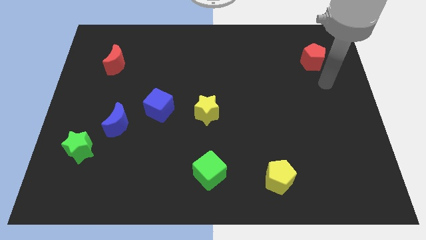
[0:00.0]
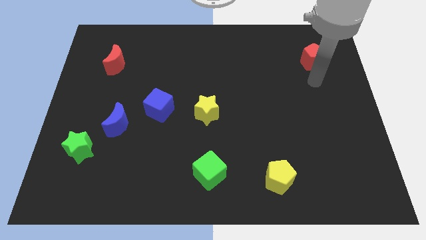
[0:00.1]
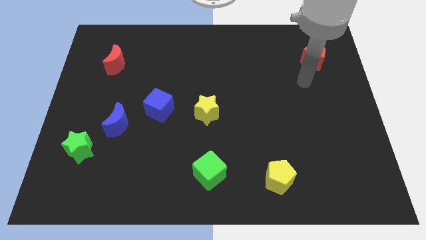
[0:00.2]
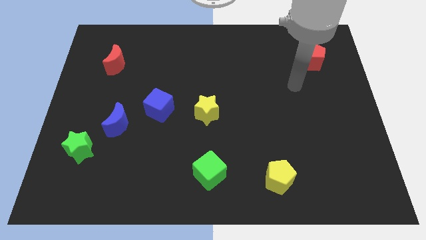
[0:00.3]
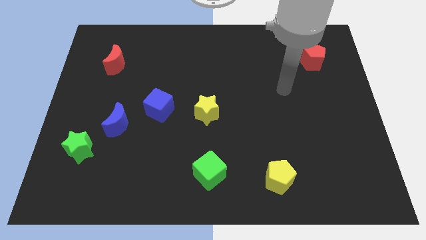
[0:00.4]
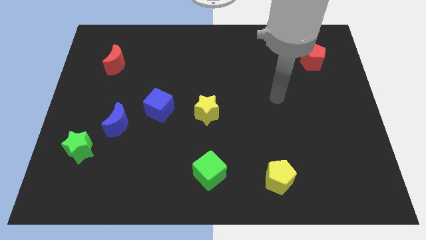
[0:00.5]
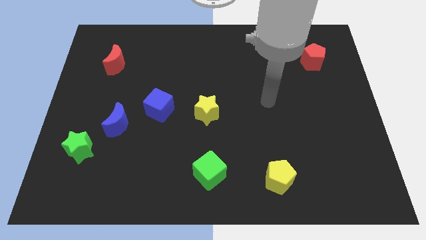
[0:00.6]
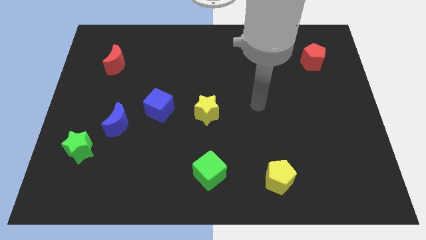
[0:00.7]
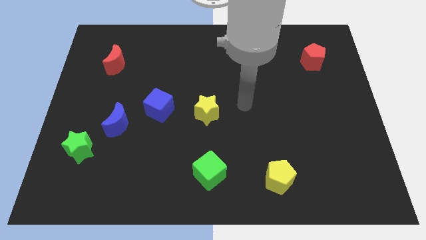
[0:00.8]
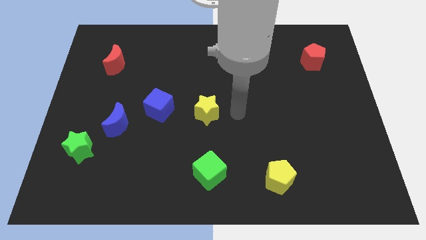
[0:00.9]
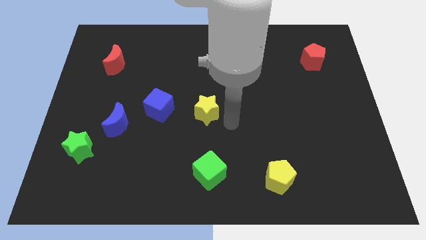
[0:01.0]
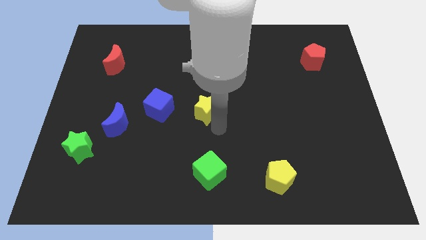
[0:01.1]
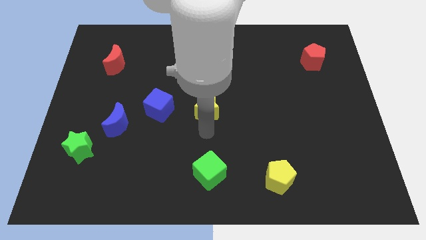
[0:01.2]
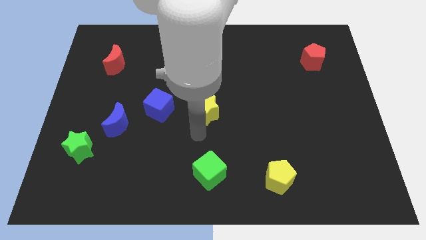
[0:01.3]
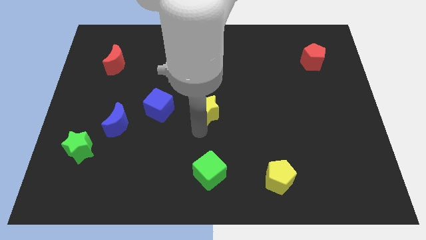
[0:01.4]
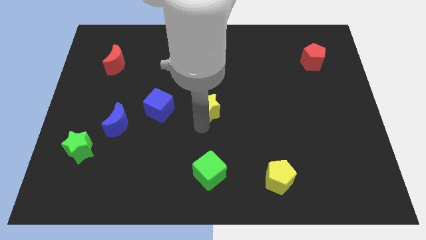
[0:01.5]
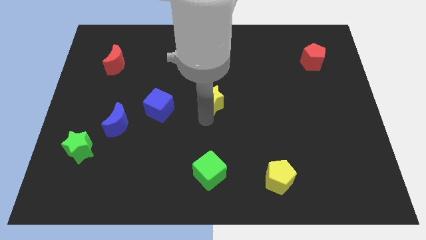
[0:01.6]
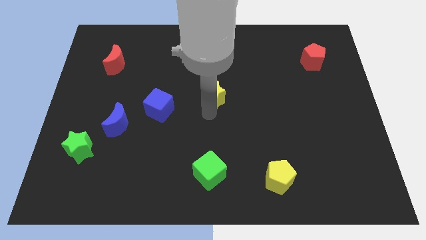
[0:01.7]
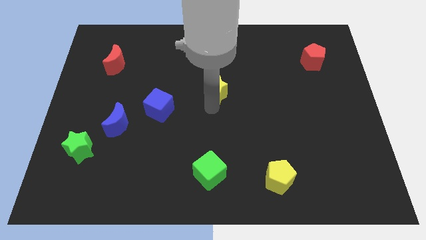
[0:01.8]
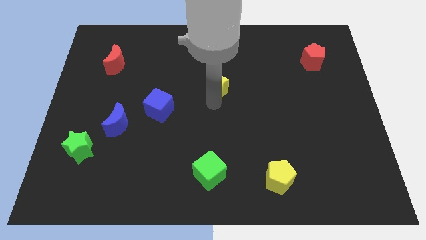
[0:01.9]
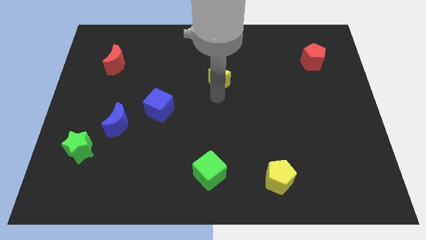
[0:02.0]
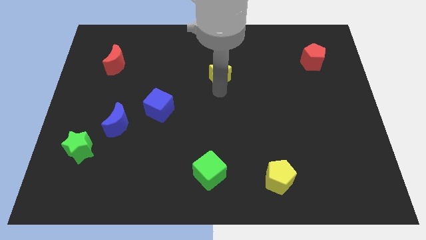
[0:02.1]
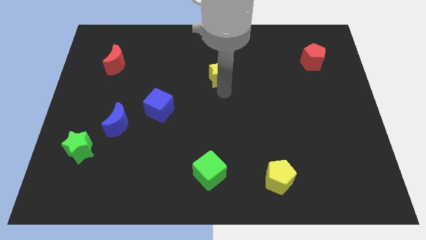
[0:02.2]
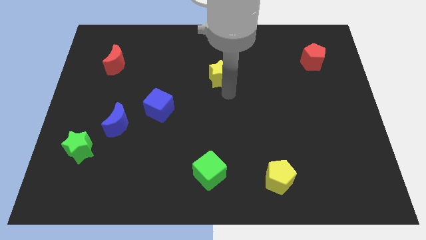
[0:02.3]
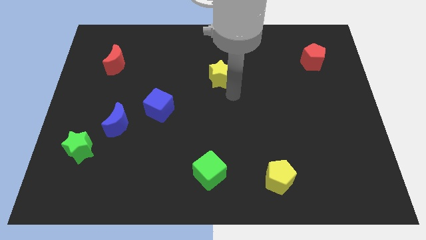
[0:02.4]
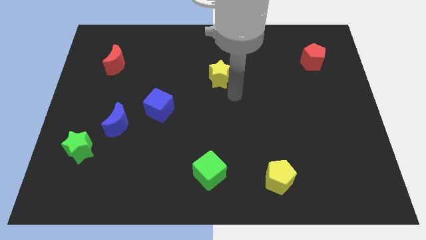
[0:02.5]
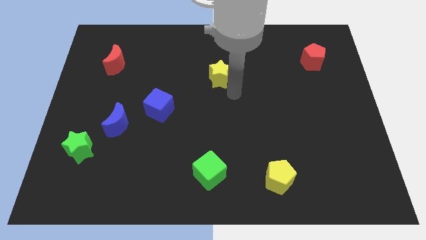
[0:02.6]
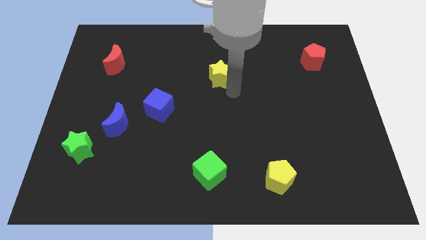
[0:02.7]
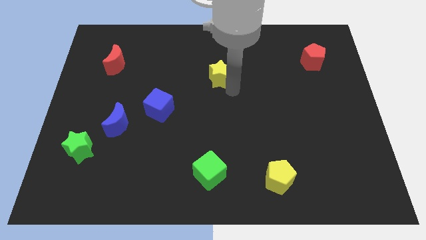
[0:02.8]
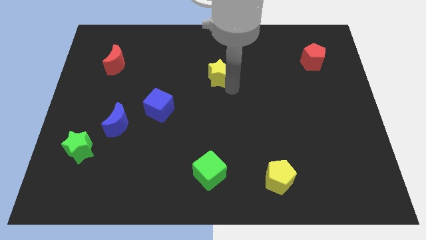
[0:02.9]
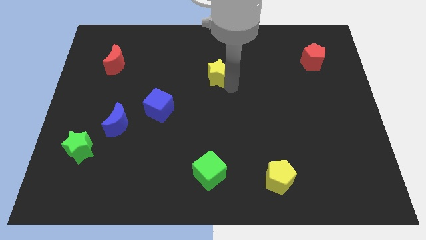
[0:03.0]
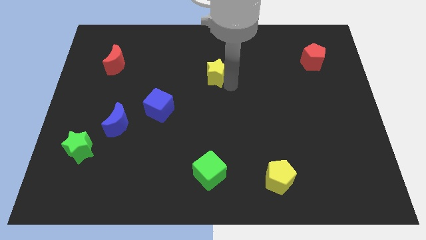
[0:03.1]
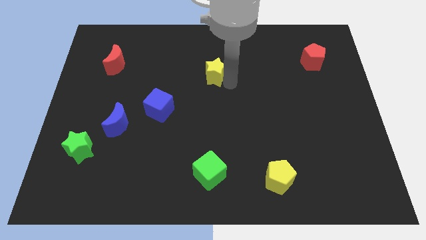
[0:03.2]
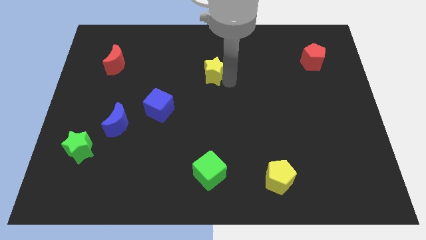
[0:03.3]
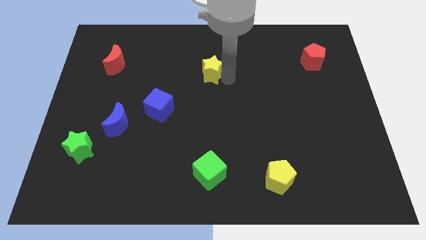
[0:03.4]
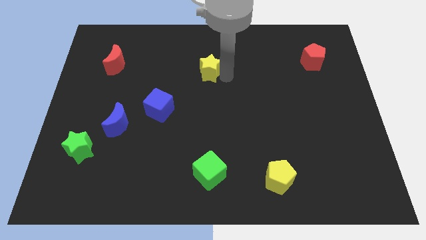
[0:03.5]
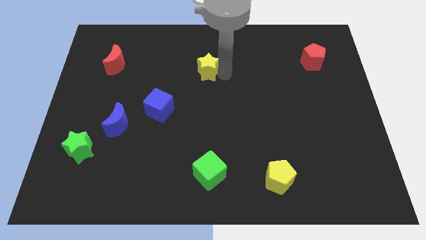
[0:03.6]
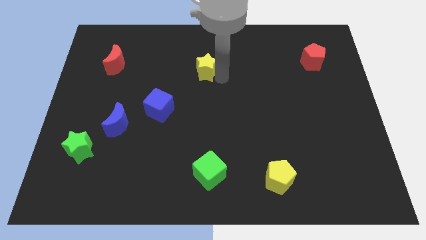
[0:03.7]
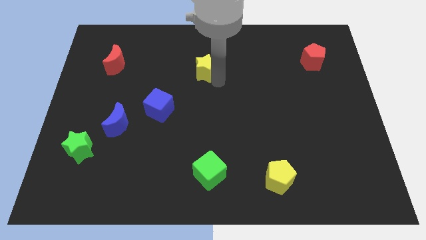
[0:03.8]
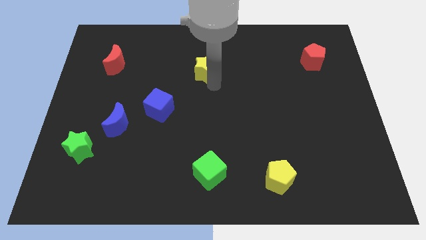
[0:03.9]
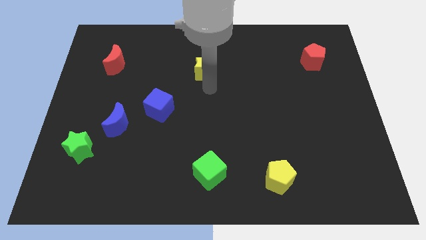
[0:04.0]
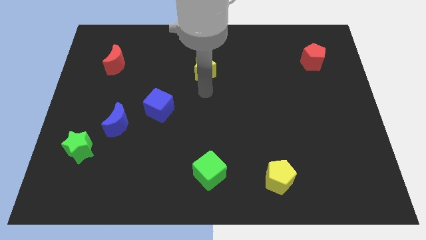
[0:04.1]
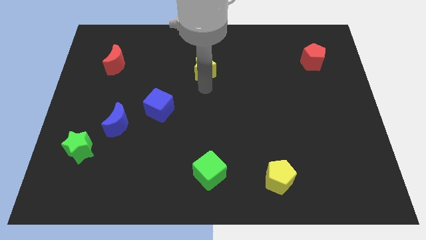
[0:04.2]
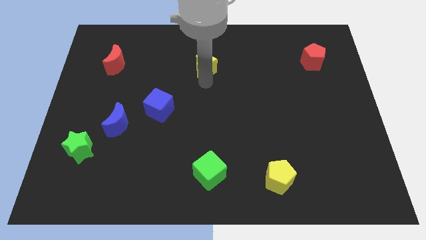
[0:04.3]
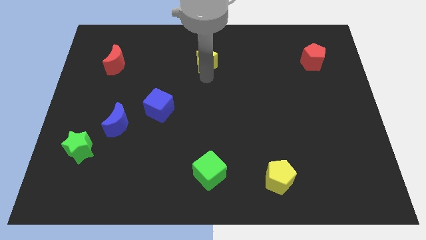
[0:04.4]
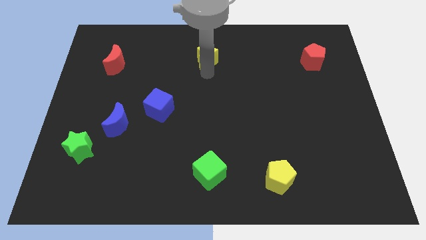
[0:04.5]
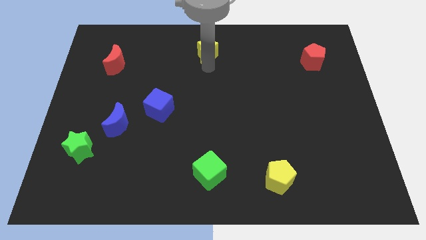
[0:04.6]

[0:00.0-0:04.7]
move the yellow star to the towards your base

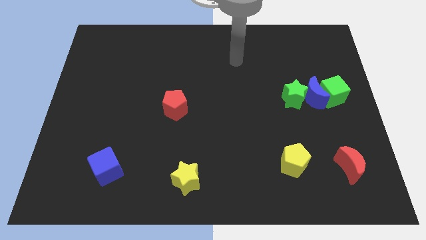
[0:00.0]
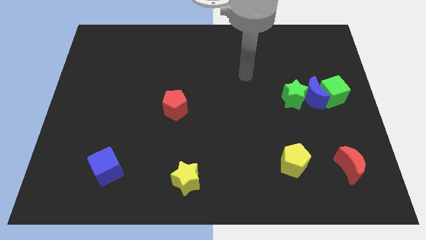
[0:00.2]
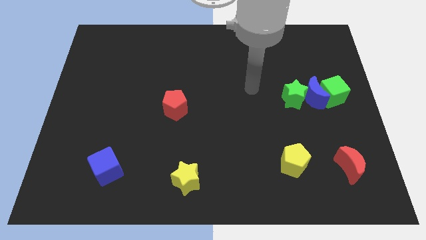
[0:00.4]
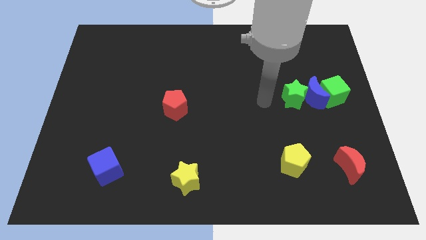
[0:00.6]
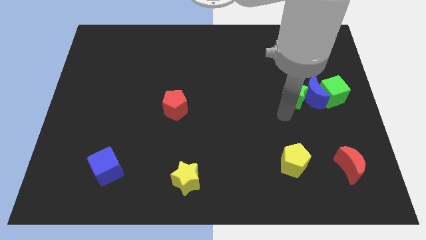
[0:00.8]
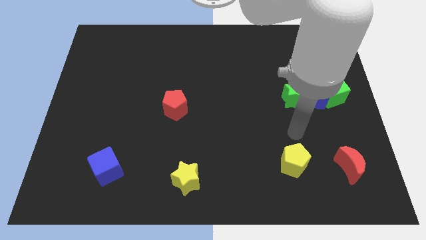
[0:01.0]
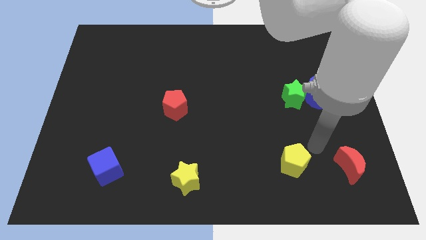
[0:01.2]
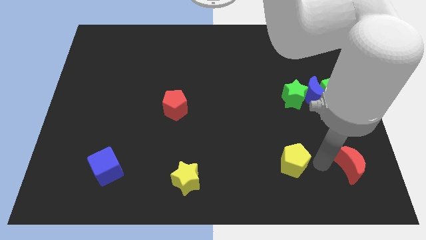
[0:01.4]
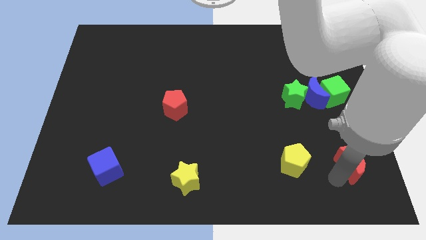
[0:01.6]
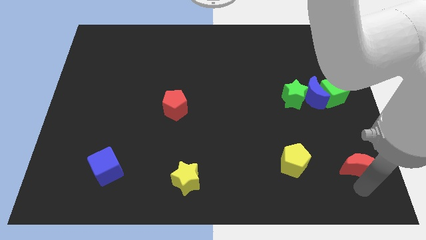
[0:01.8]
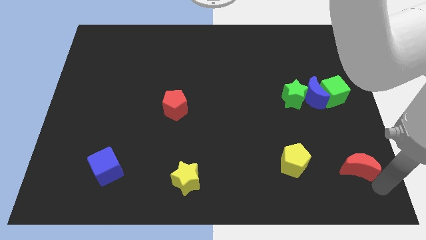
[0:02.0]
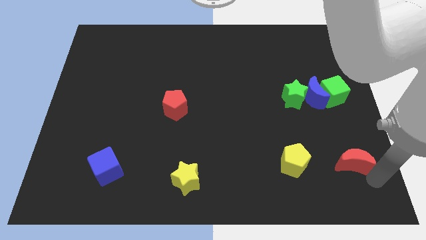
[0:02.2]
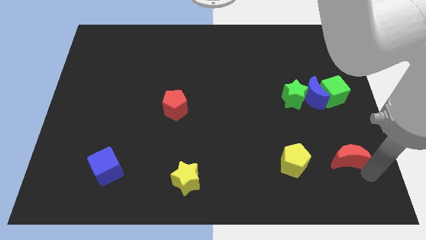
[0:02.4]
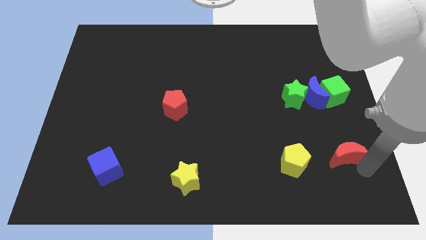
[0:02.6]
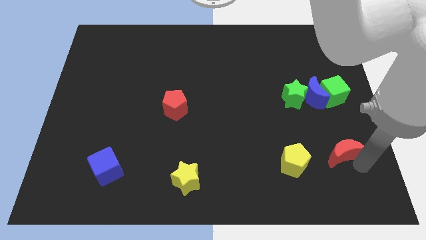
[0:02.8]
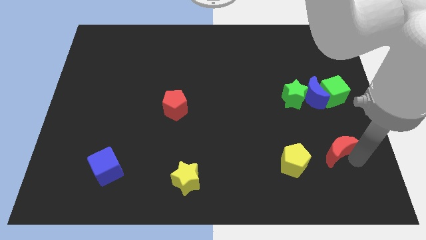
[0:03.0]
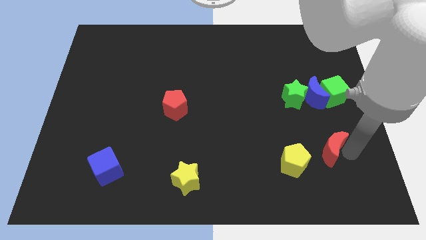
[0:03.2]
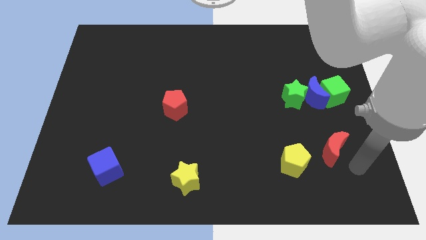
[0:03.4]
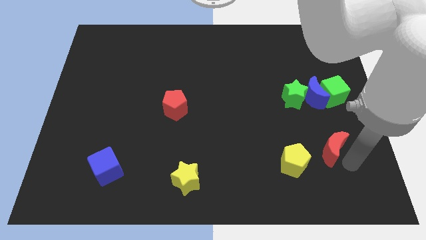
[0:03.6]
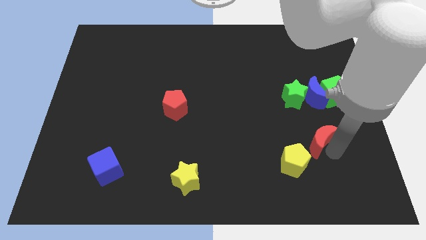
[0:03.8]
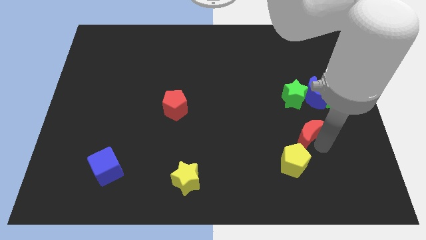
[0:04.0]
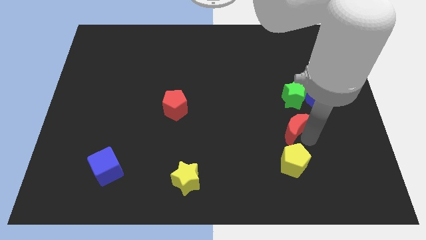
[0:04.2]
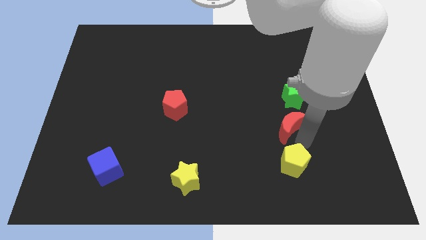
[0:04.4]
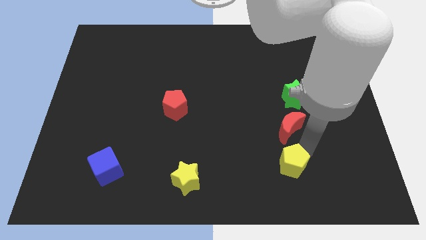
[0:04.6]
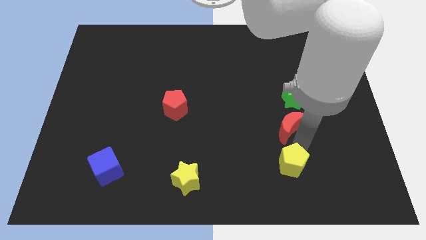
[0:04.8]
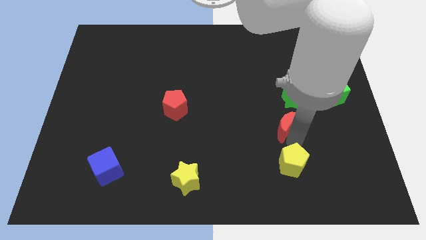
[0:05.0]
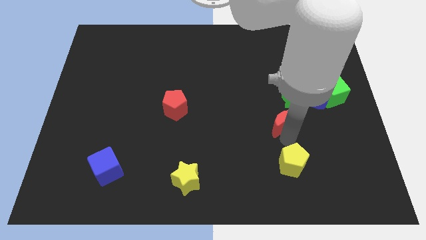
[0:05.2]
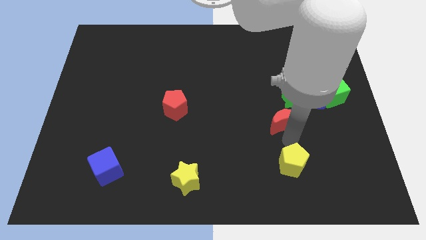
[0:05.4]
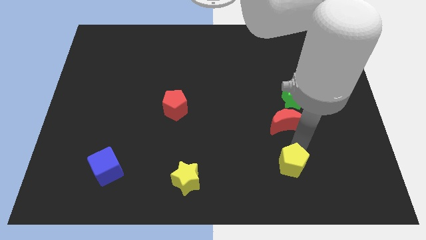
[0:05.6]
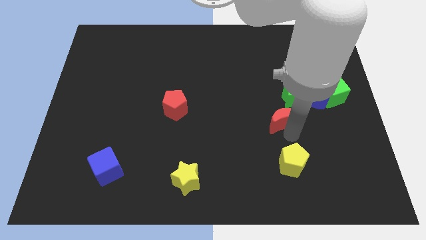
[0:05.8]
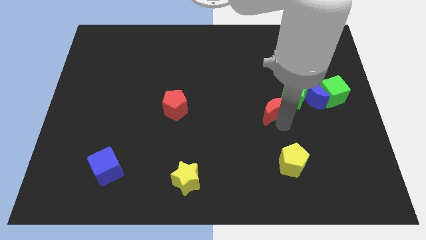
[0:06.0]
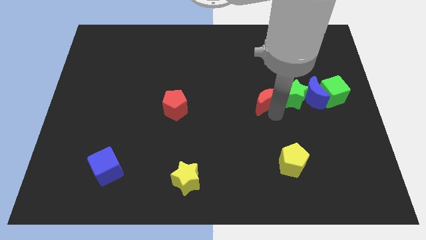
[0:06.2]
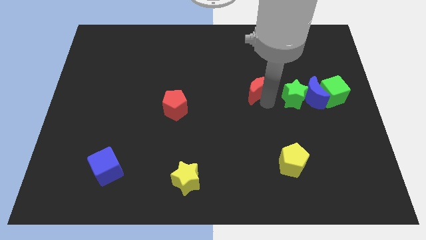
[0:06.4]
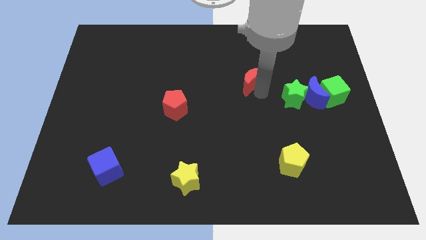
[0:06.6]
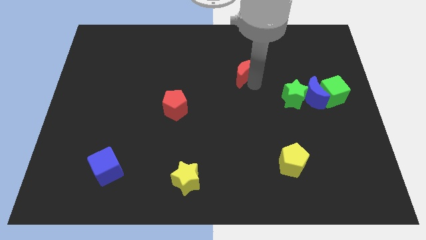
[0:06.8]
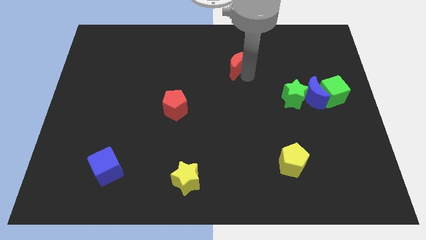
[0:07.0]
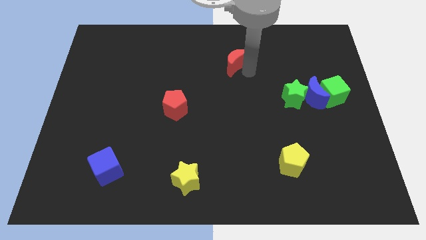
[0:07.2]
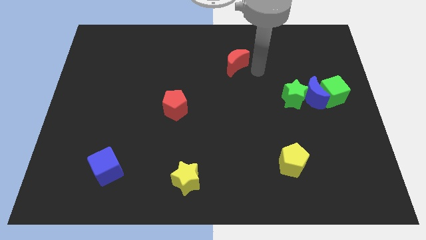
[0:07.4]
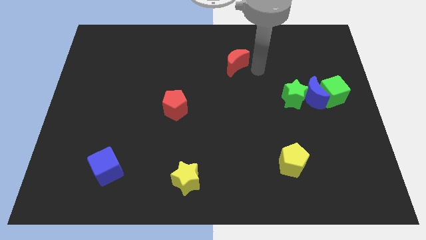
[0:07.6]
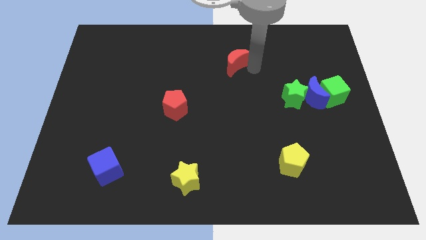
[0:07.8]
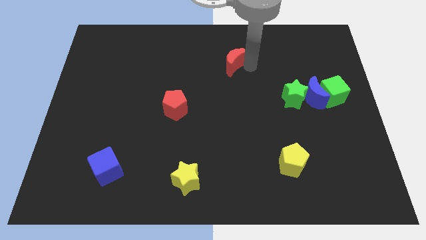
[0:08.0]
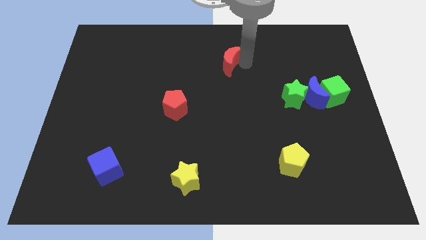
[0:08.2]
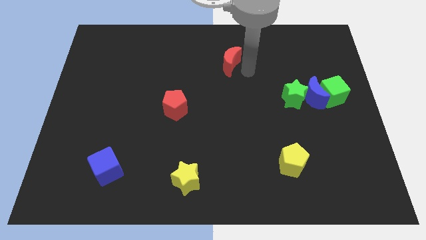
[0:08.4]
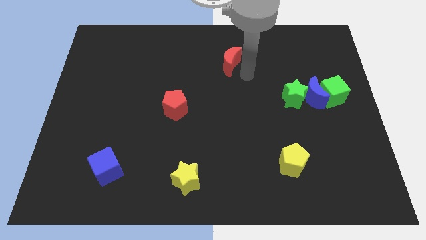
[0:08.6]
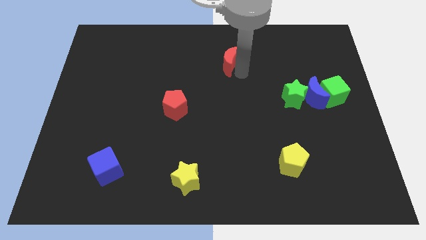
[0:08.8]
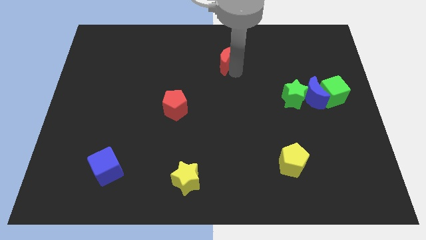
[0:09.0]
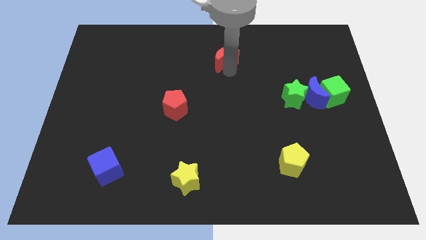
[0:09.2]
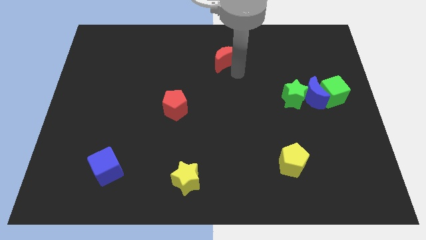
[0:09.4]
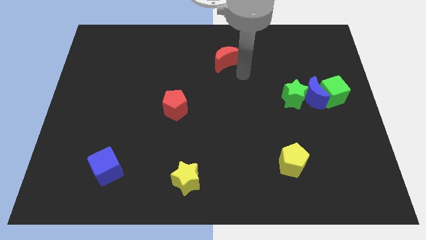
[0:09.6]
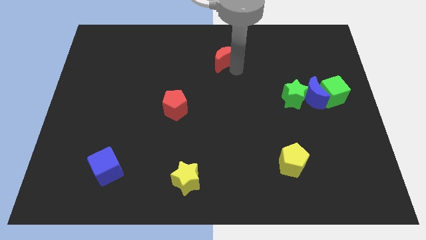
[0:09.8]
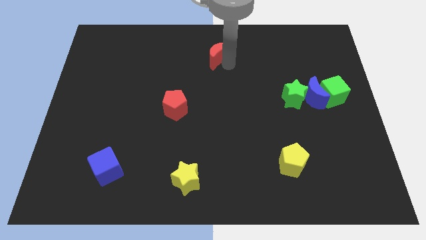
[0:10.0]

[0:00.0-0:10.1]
put the red moon to the towards your base
